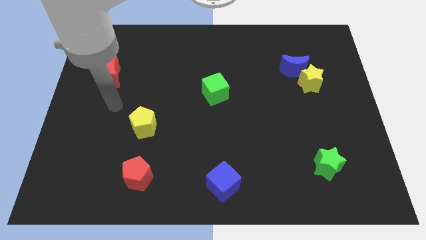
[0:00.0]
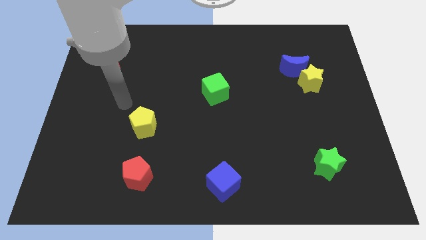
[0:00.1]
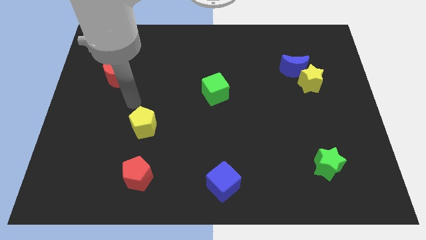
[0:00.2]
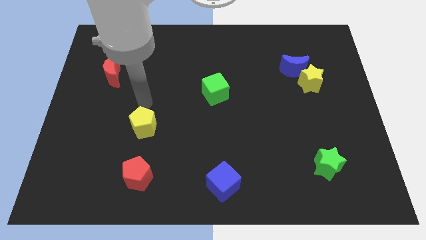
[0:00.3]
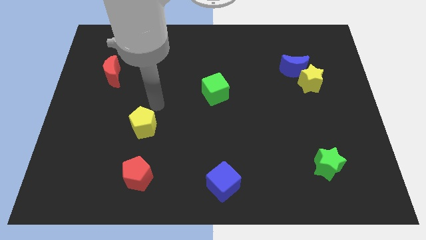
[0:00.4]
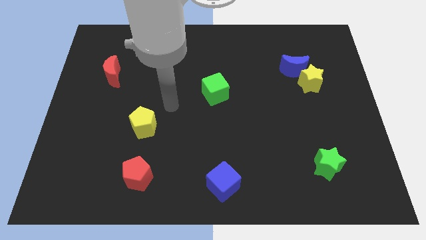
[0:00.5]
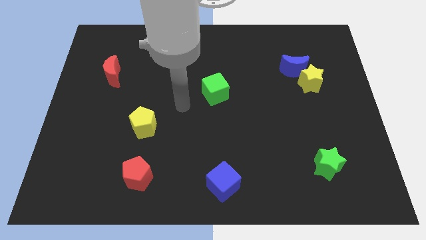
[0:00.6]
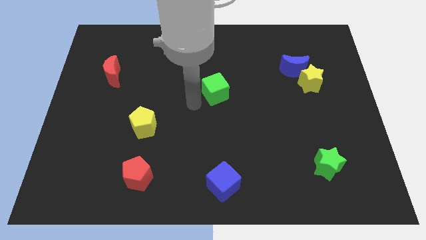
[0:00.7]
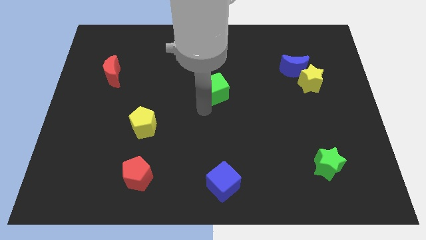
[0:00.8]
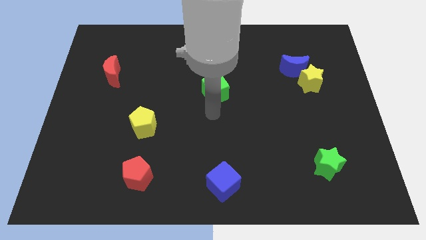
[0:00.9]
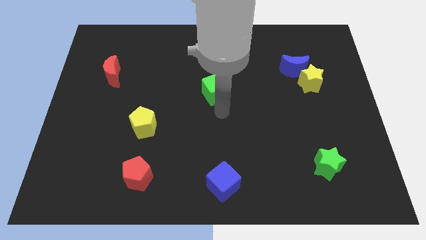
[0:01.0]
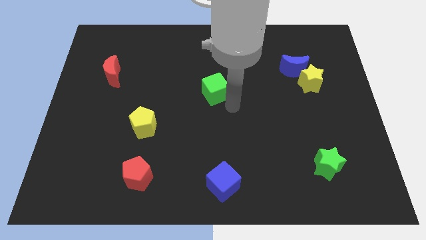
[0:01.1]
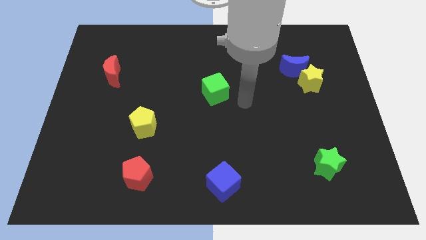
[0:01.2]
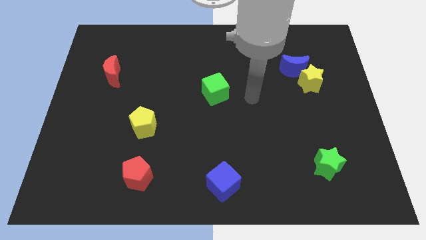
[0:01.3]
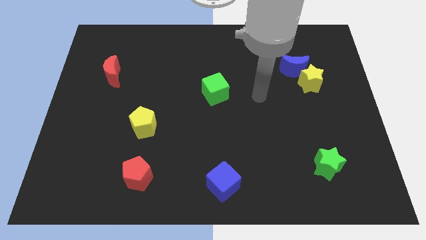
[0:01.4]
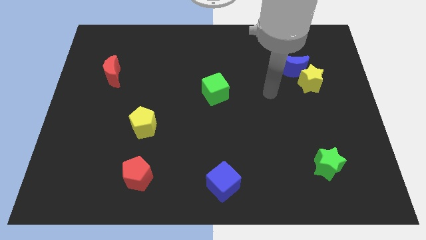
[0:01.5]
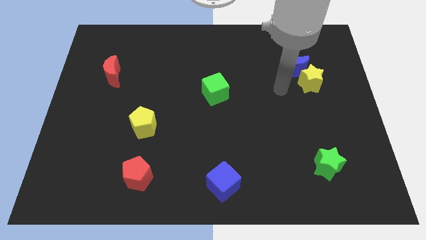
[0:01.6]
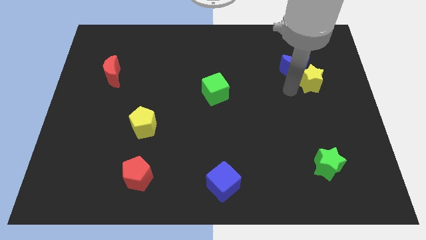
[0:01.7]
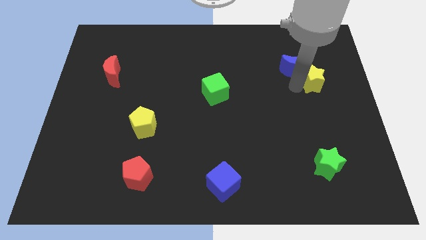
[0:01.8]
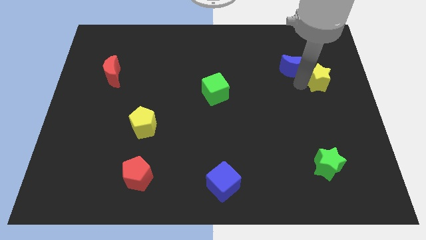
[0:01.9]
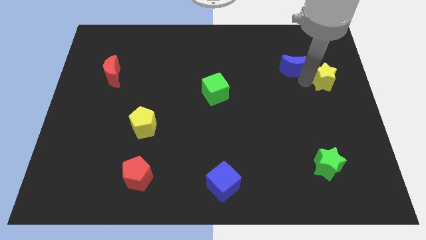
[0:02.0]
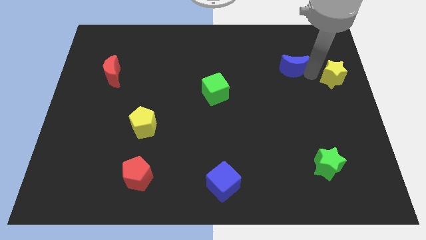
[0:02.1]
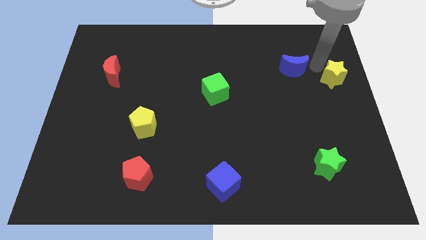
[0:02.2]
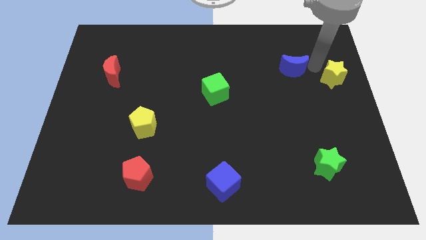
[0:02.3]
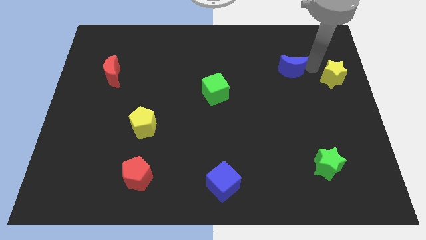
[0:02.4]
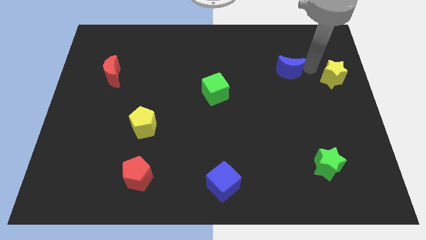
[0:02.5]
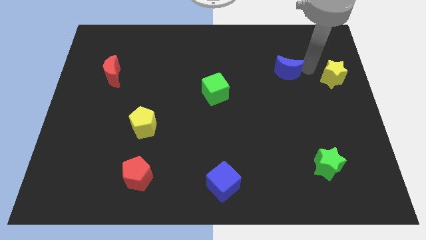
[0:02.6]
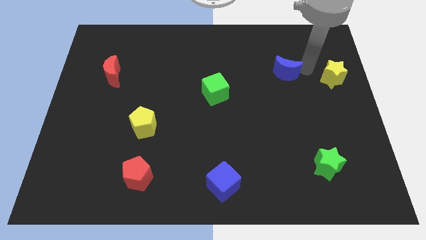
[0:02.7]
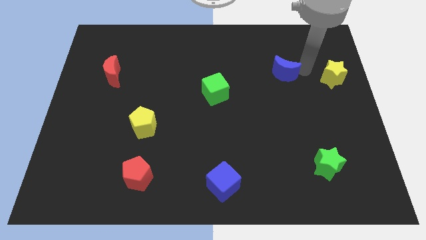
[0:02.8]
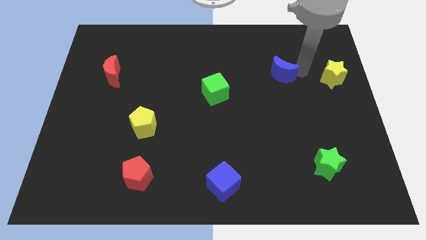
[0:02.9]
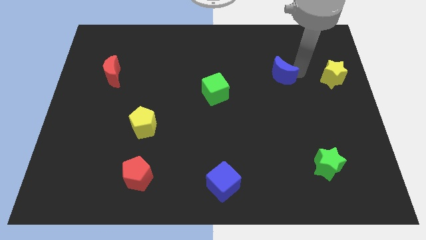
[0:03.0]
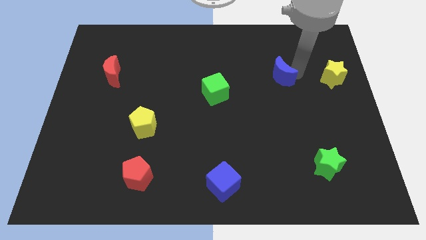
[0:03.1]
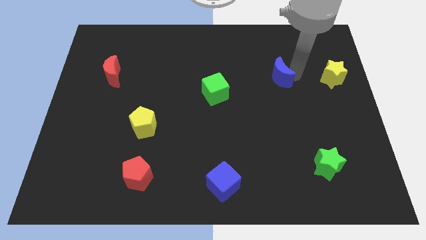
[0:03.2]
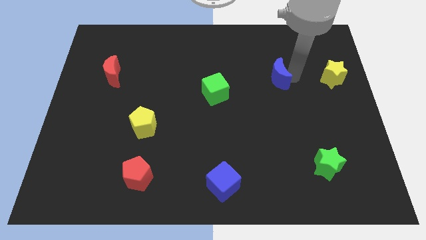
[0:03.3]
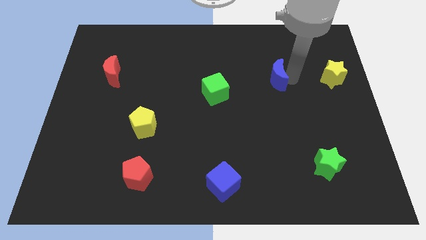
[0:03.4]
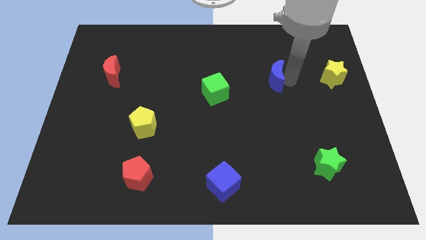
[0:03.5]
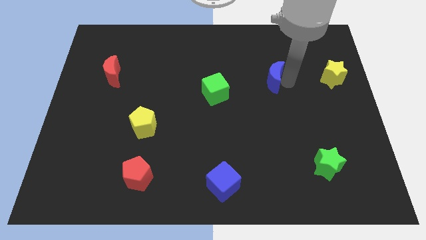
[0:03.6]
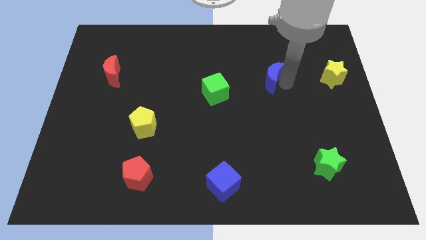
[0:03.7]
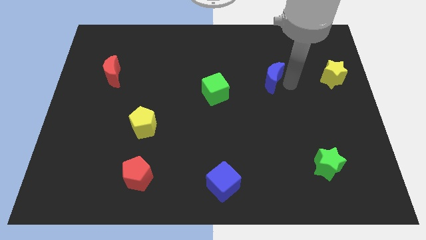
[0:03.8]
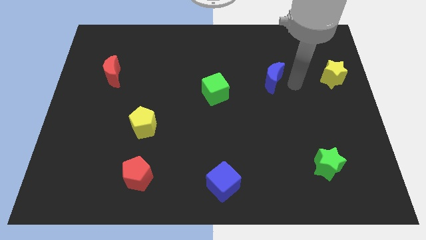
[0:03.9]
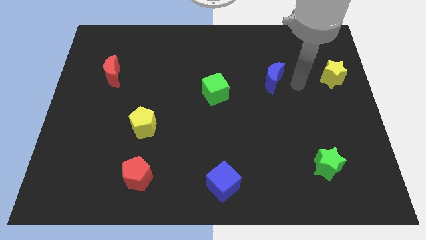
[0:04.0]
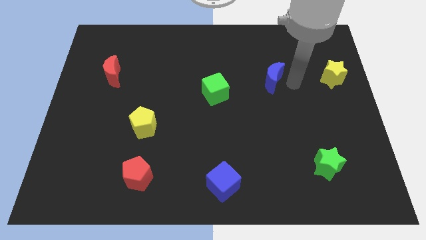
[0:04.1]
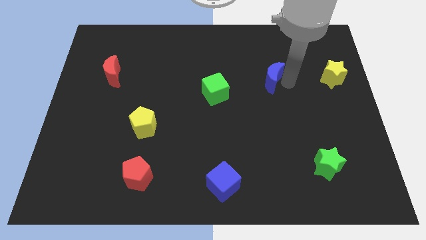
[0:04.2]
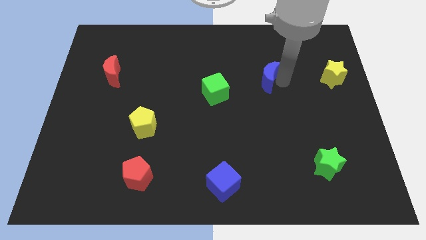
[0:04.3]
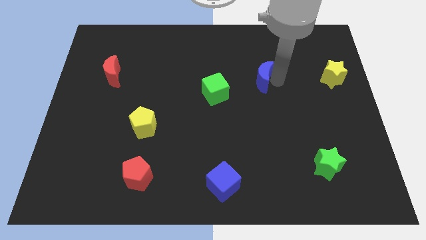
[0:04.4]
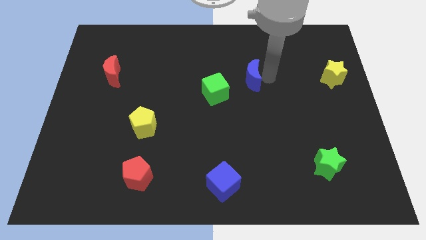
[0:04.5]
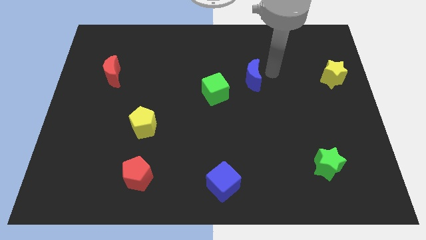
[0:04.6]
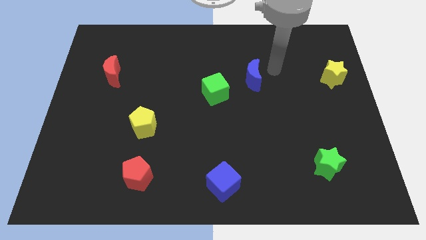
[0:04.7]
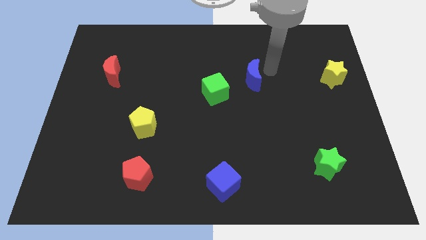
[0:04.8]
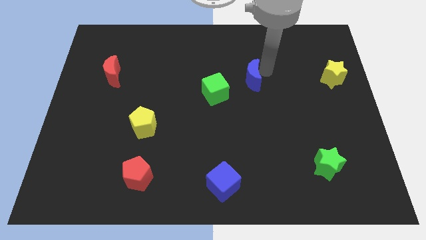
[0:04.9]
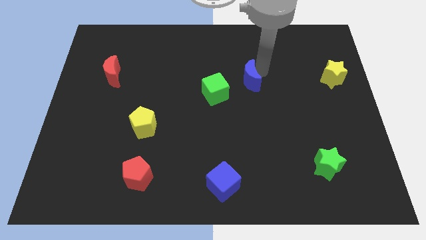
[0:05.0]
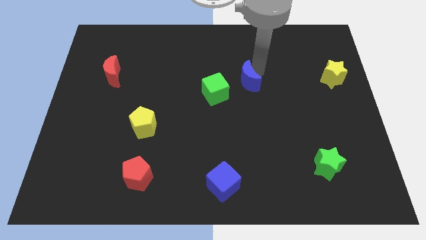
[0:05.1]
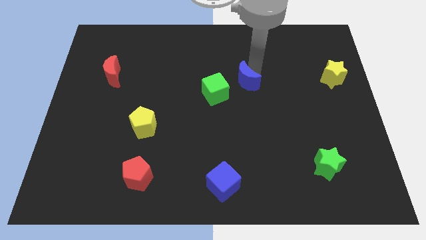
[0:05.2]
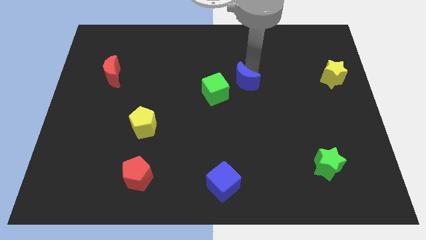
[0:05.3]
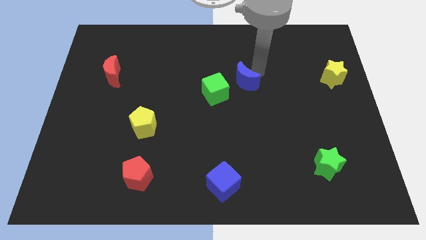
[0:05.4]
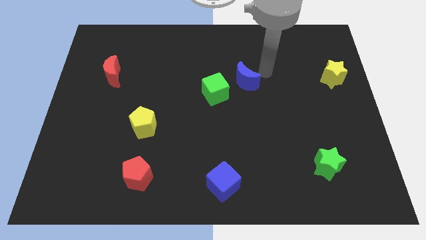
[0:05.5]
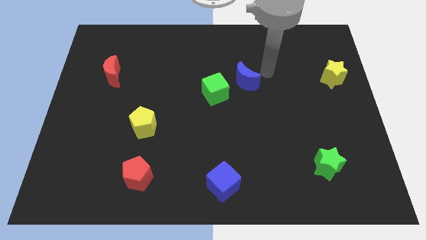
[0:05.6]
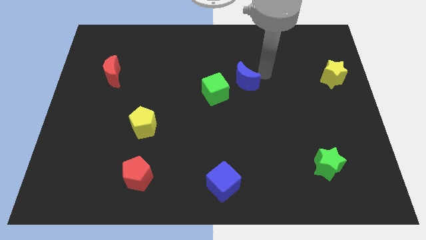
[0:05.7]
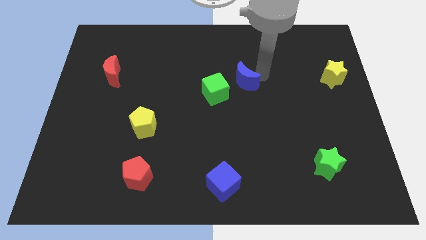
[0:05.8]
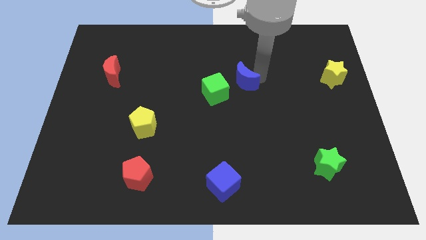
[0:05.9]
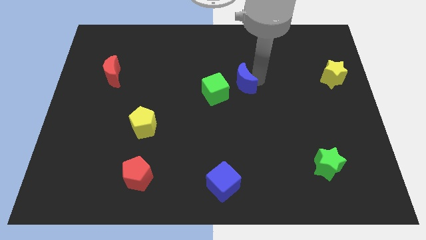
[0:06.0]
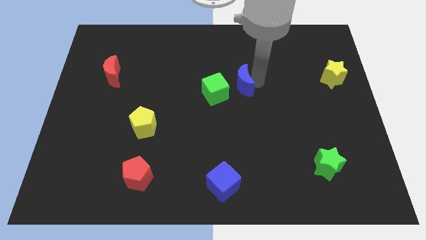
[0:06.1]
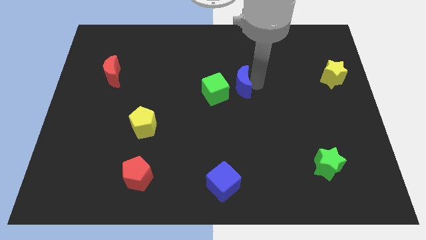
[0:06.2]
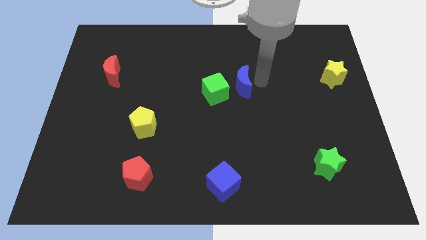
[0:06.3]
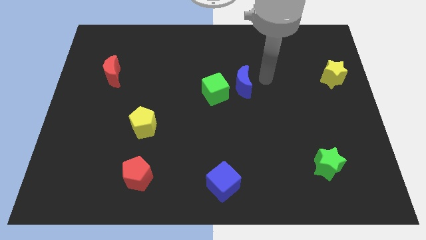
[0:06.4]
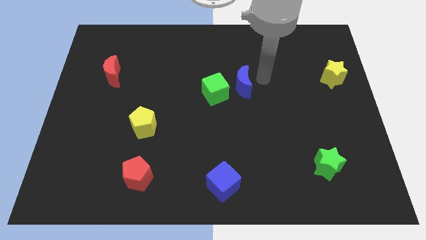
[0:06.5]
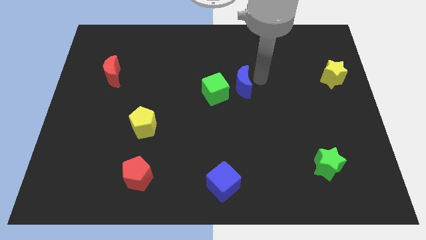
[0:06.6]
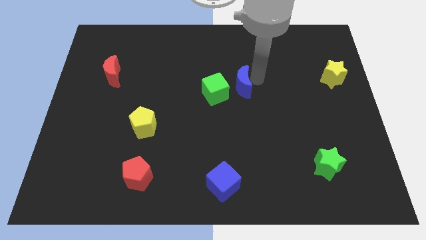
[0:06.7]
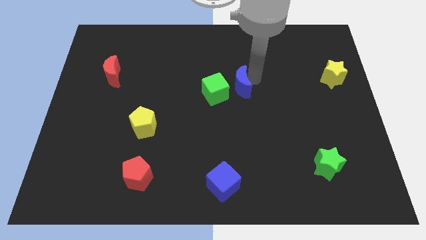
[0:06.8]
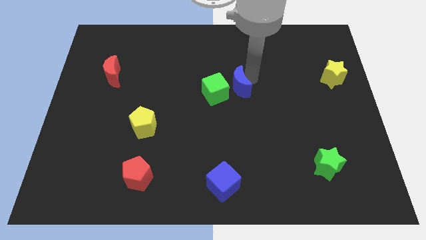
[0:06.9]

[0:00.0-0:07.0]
push the blue moon towards the green cube
